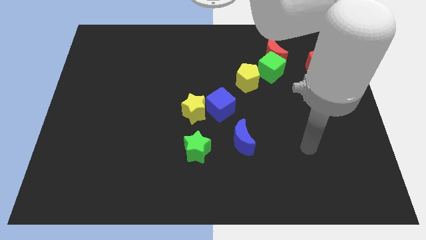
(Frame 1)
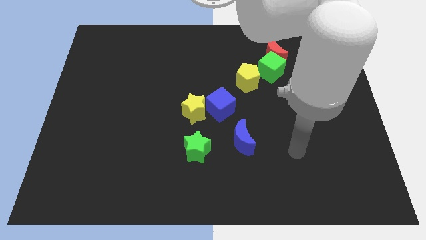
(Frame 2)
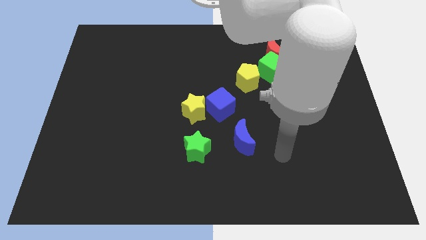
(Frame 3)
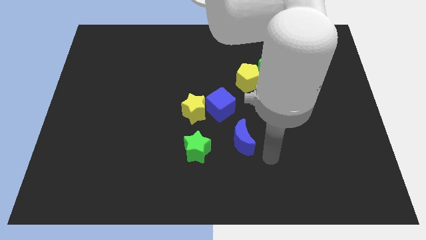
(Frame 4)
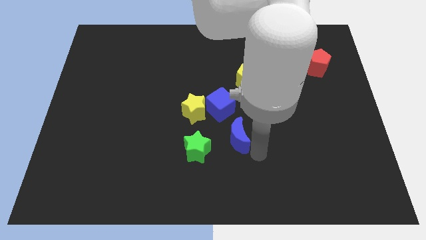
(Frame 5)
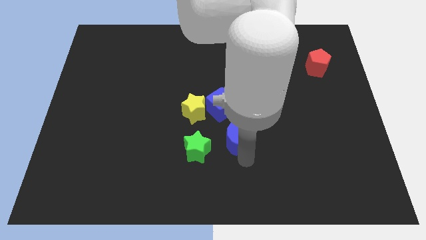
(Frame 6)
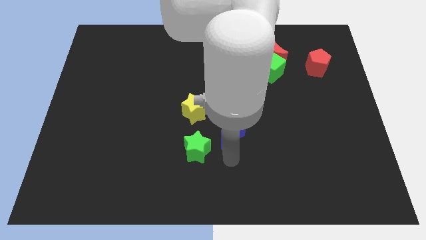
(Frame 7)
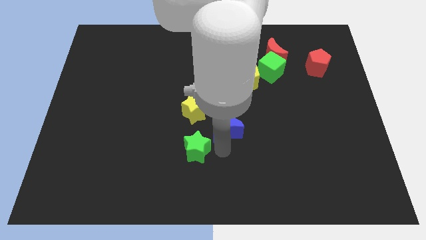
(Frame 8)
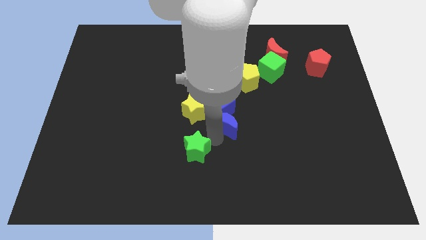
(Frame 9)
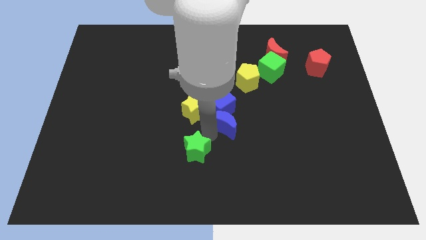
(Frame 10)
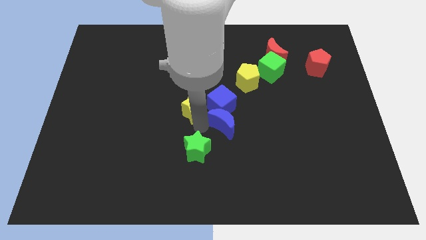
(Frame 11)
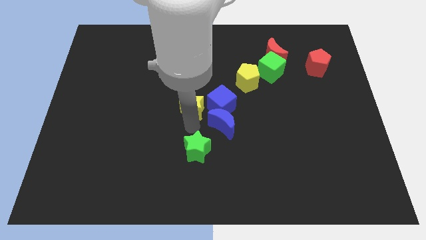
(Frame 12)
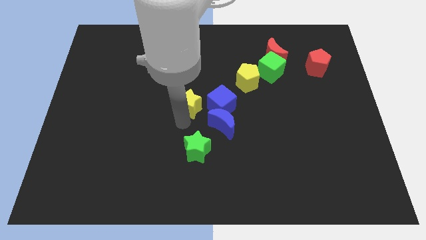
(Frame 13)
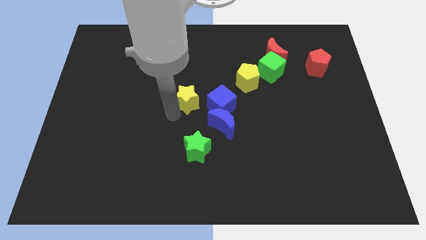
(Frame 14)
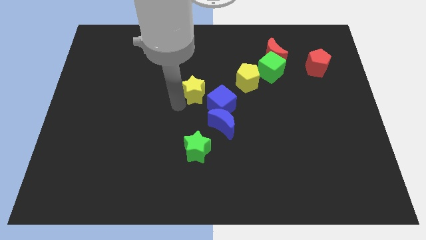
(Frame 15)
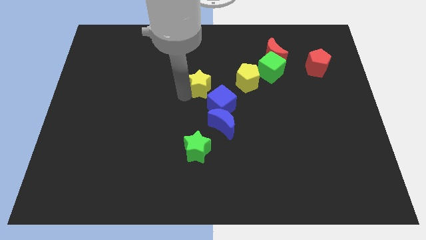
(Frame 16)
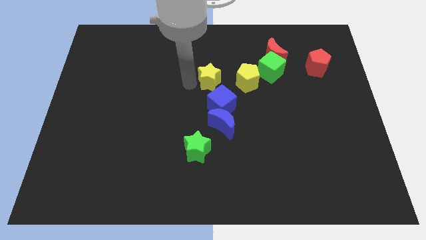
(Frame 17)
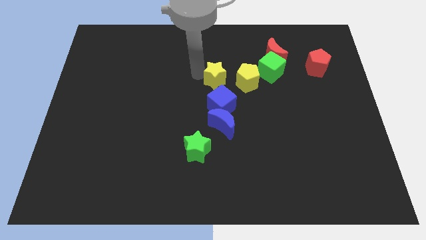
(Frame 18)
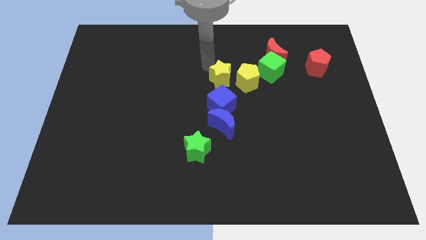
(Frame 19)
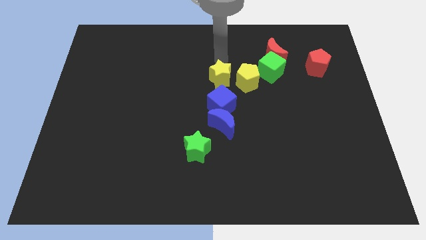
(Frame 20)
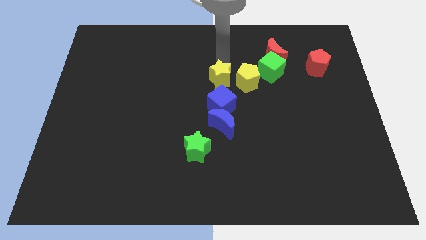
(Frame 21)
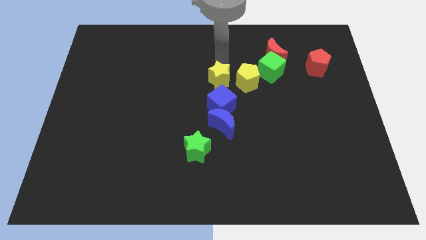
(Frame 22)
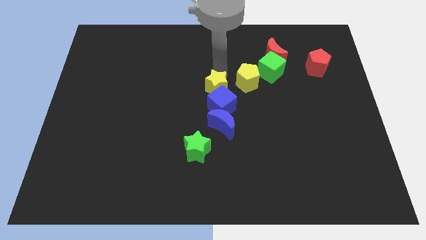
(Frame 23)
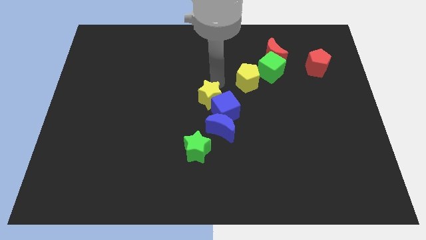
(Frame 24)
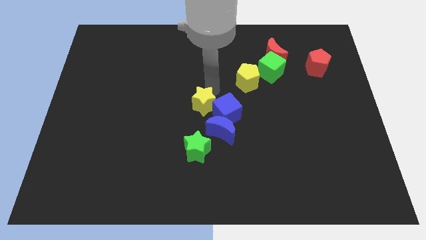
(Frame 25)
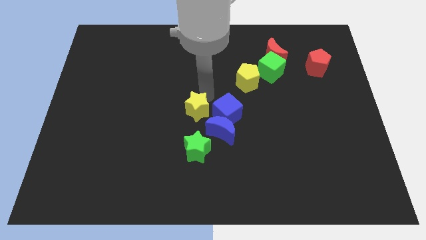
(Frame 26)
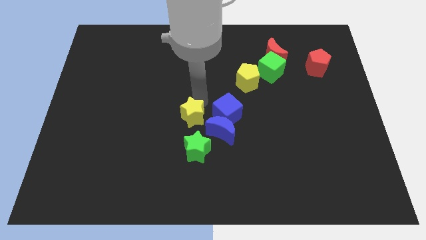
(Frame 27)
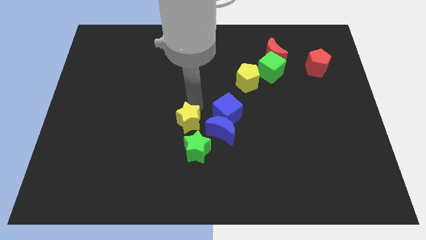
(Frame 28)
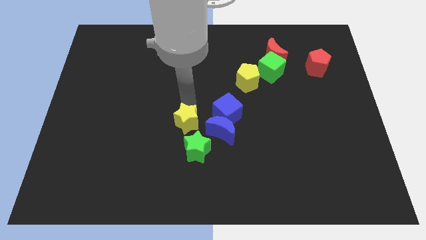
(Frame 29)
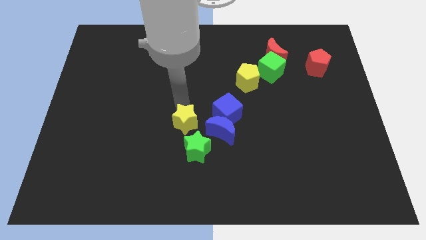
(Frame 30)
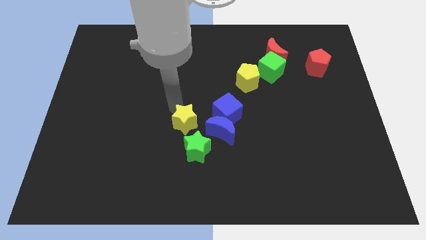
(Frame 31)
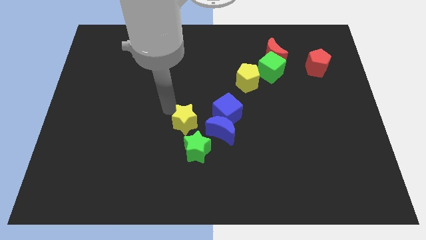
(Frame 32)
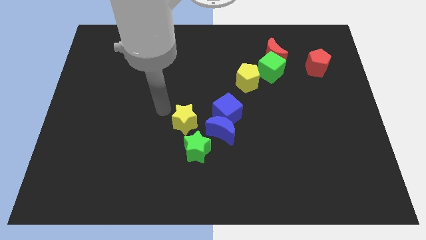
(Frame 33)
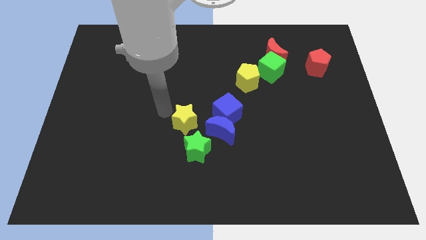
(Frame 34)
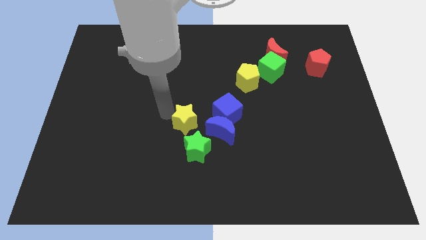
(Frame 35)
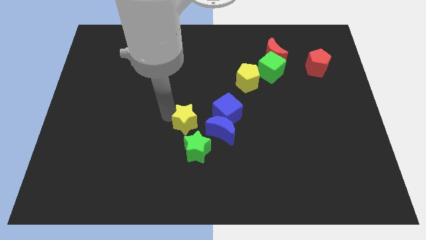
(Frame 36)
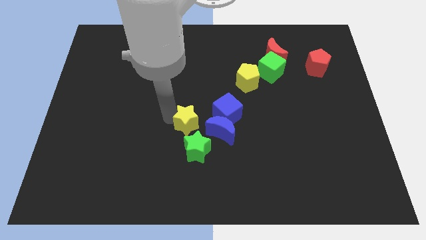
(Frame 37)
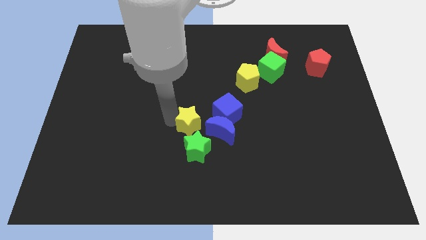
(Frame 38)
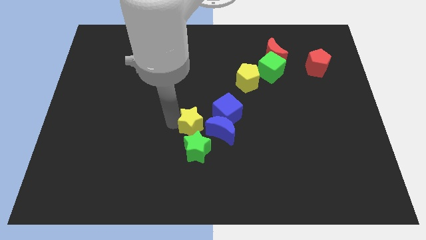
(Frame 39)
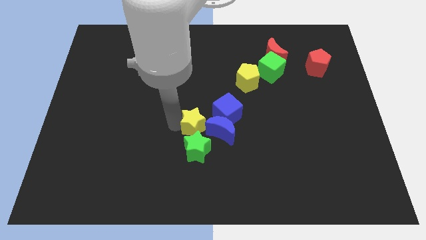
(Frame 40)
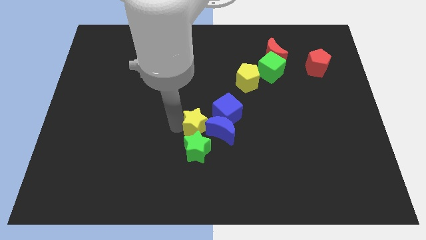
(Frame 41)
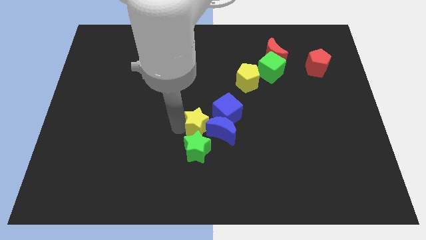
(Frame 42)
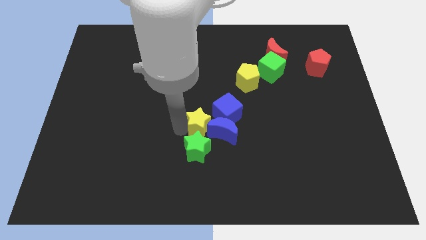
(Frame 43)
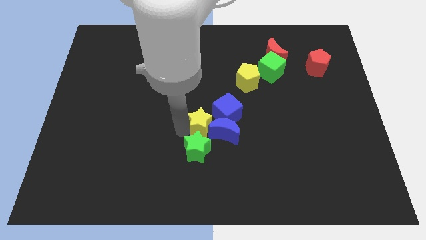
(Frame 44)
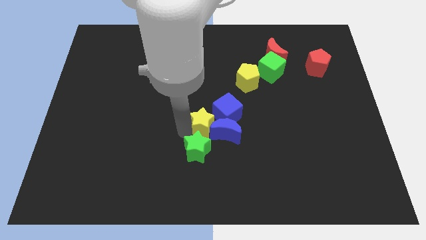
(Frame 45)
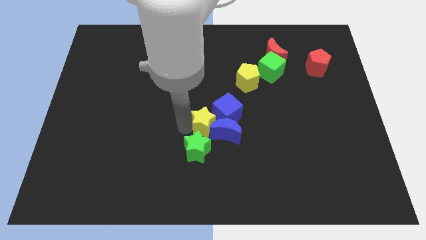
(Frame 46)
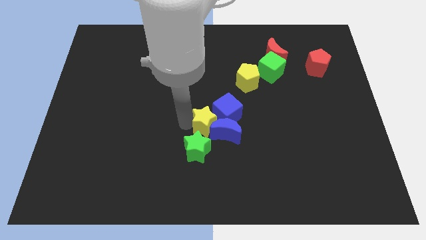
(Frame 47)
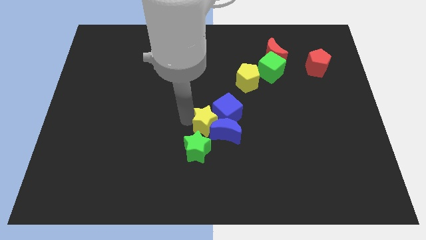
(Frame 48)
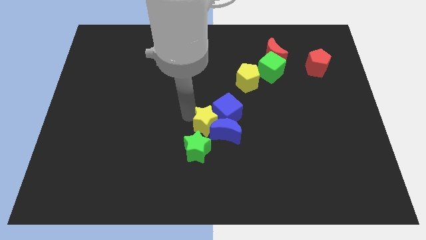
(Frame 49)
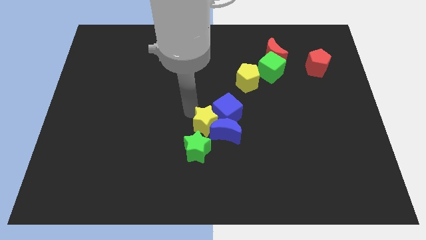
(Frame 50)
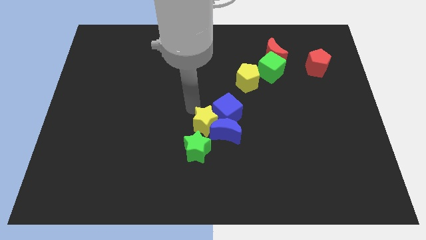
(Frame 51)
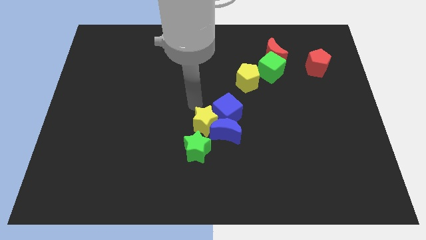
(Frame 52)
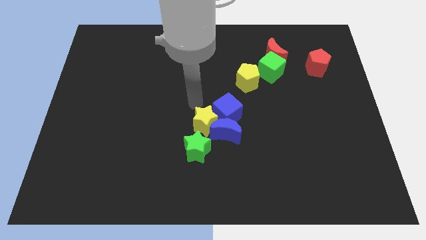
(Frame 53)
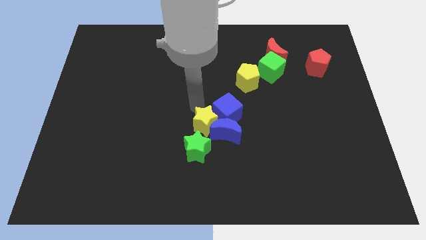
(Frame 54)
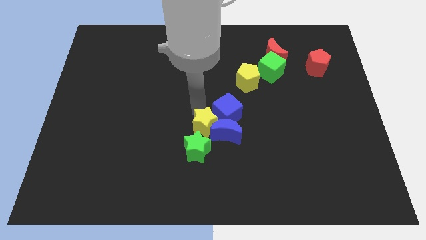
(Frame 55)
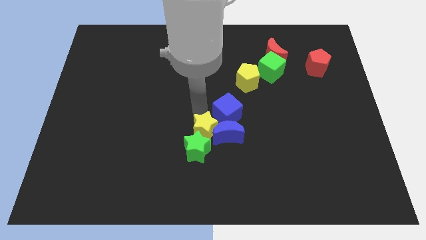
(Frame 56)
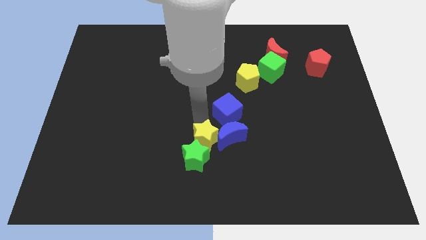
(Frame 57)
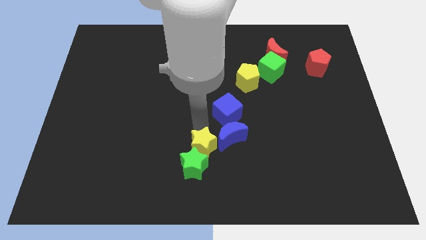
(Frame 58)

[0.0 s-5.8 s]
push the yellow star a little bit downwards and then right

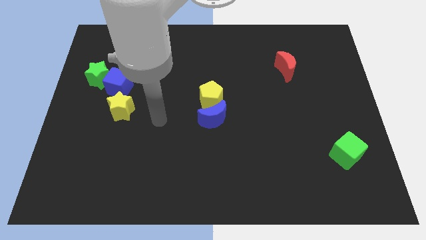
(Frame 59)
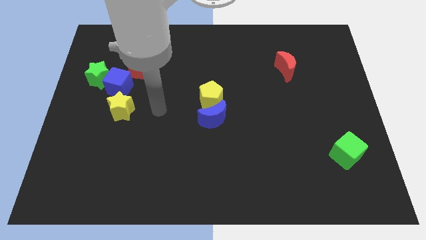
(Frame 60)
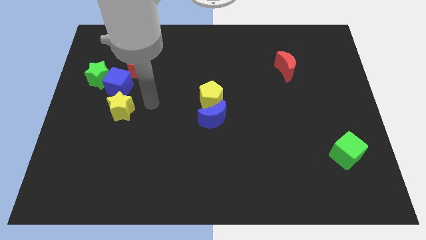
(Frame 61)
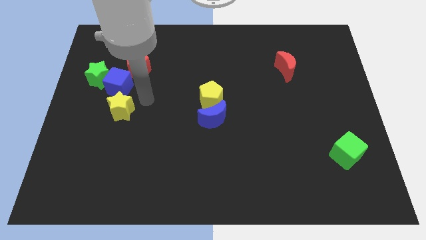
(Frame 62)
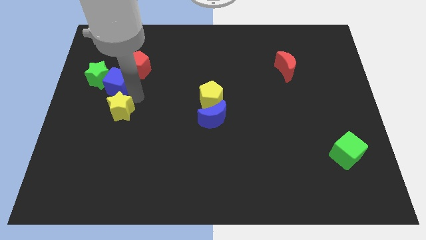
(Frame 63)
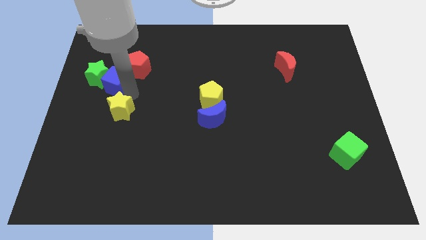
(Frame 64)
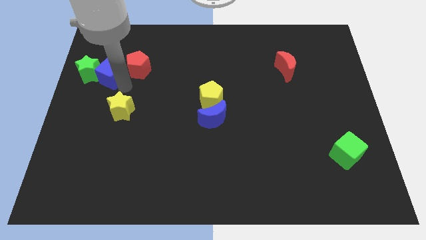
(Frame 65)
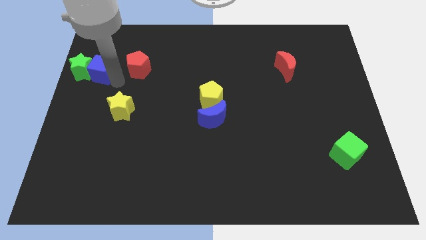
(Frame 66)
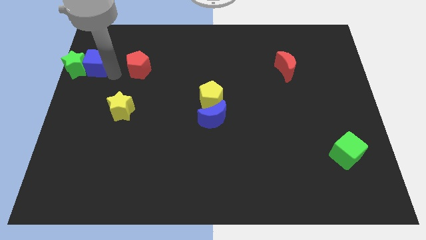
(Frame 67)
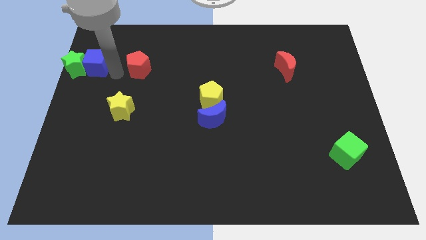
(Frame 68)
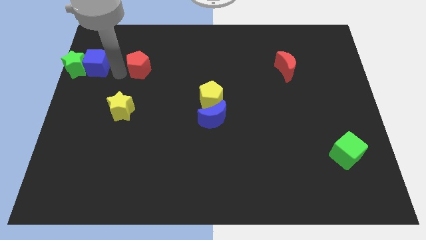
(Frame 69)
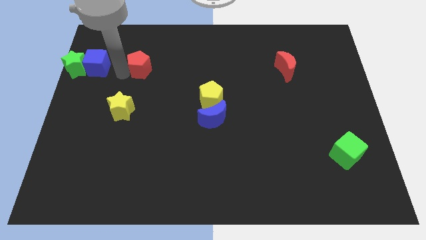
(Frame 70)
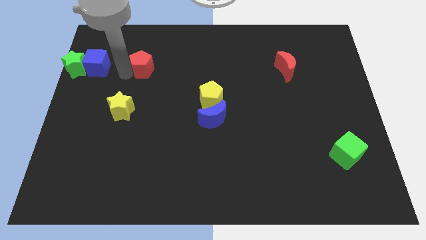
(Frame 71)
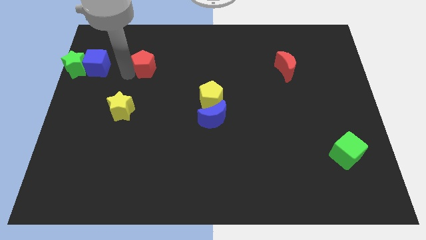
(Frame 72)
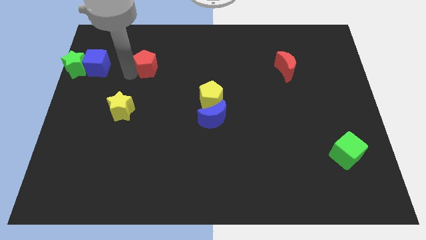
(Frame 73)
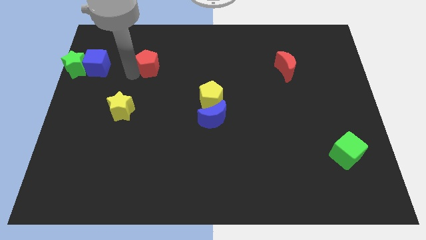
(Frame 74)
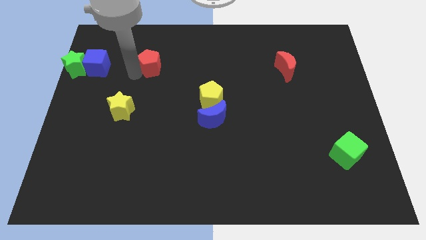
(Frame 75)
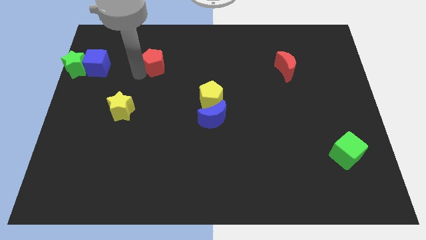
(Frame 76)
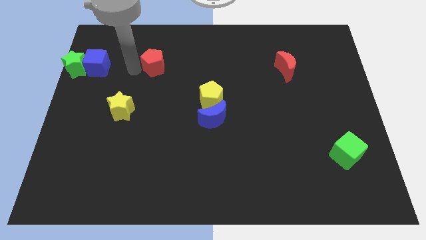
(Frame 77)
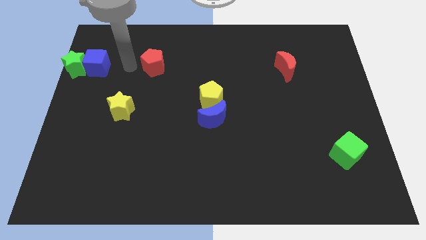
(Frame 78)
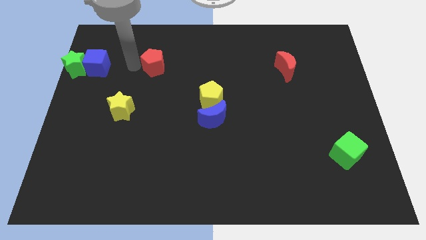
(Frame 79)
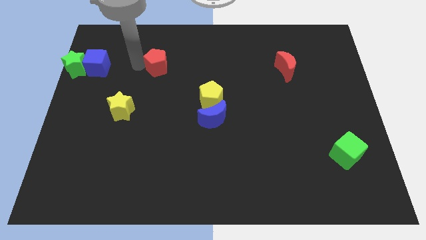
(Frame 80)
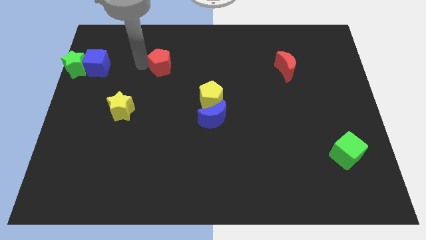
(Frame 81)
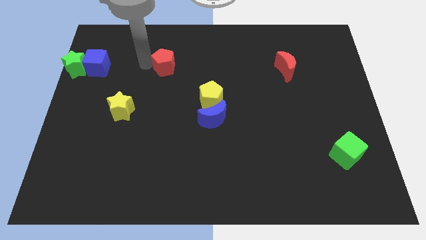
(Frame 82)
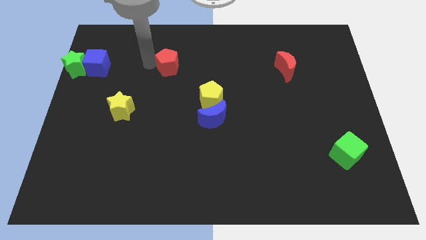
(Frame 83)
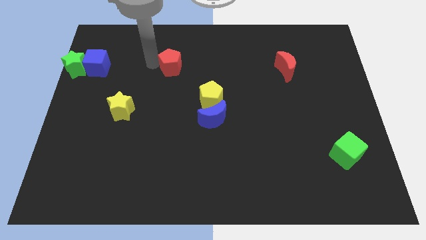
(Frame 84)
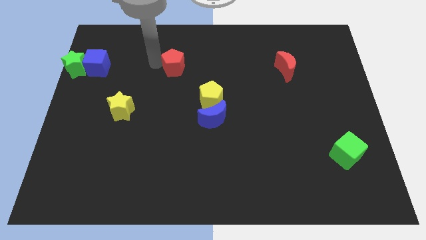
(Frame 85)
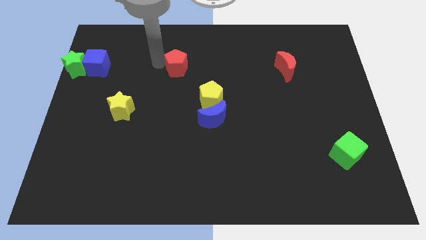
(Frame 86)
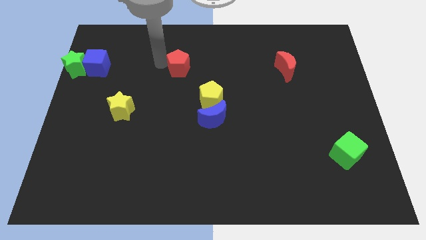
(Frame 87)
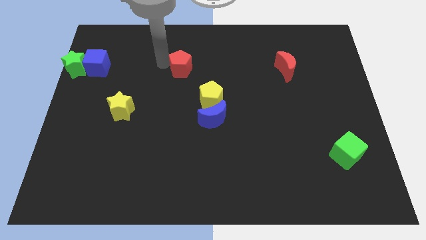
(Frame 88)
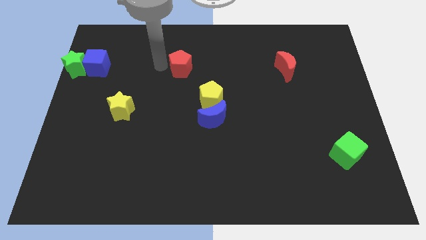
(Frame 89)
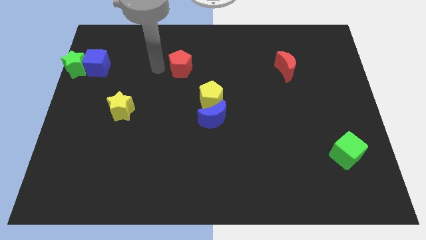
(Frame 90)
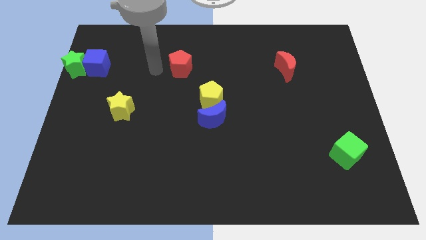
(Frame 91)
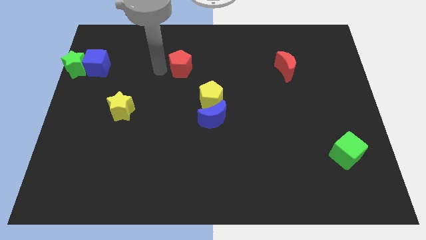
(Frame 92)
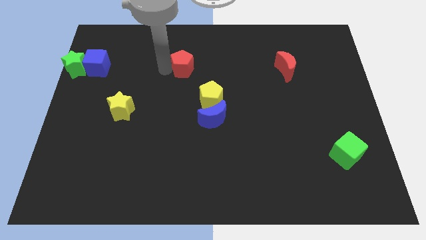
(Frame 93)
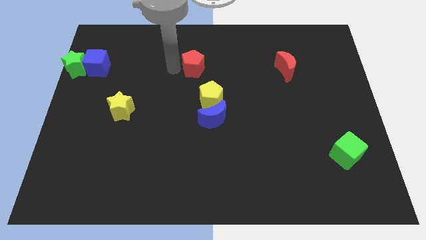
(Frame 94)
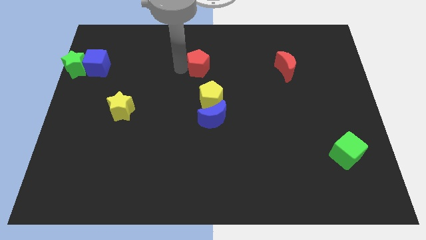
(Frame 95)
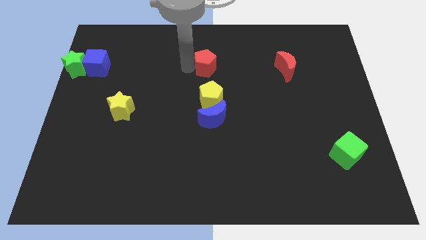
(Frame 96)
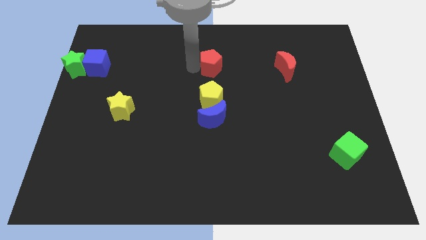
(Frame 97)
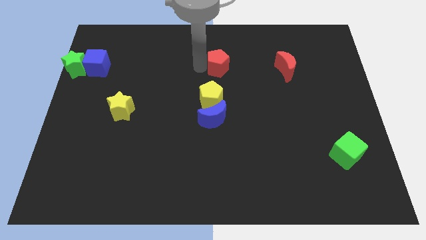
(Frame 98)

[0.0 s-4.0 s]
push the red pentagon to the right
